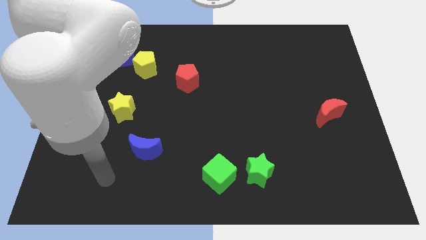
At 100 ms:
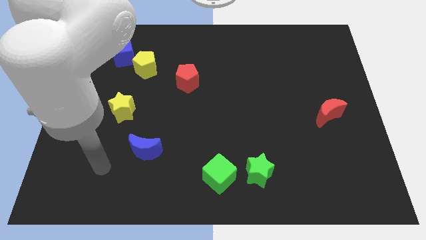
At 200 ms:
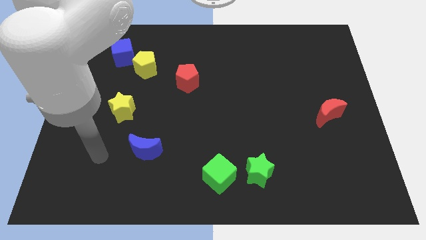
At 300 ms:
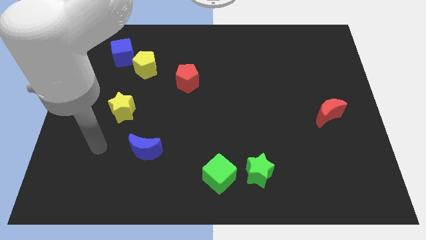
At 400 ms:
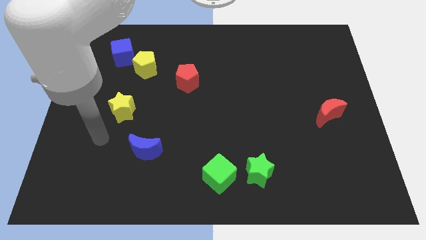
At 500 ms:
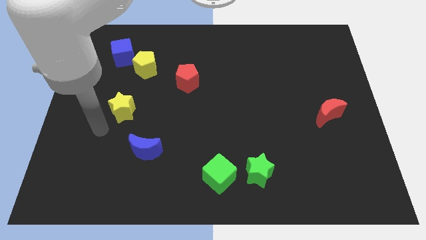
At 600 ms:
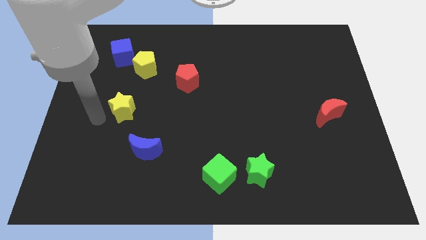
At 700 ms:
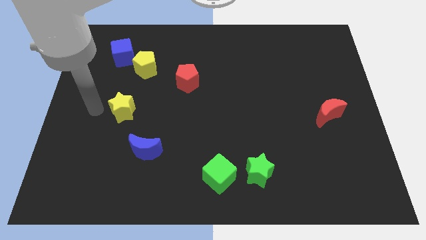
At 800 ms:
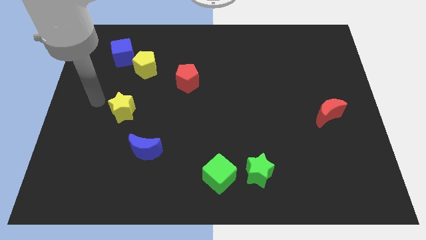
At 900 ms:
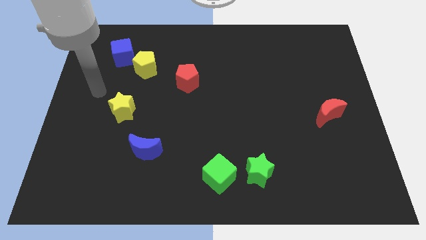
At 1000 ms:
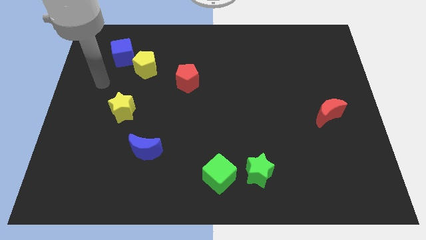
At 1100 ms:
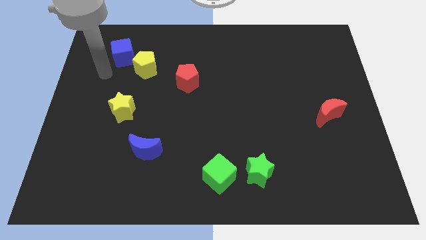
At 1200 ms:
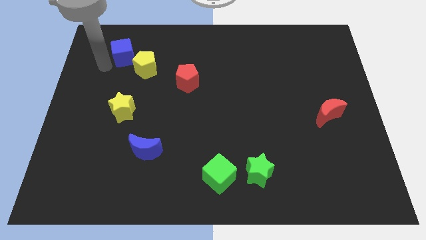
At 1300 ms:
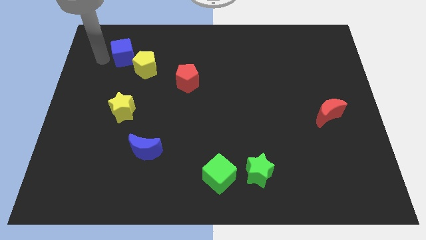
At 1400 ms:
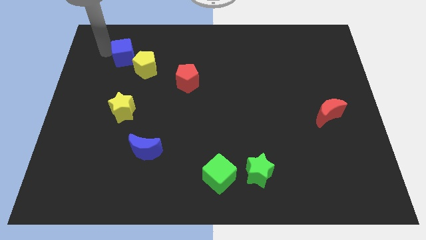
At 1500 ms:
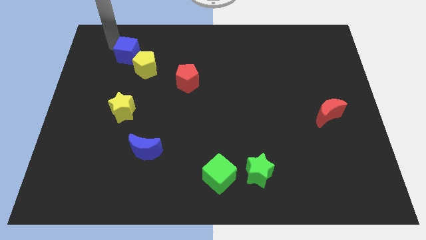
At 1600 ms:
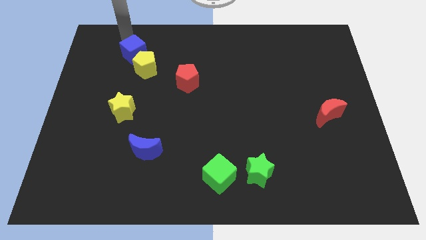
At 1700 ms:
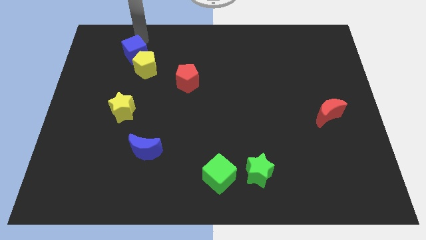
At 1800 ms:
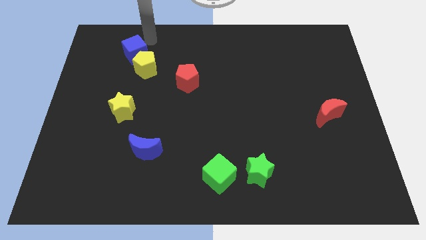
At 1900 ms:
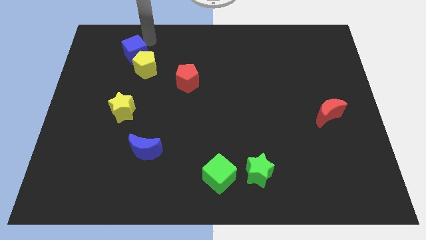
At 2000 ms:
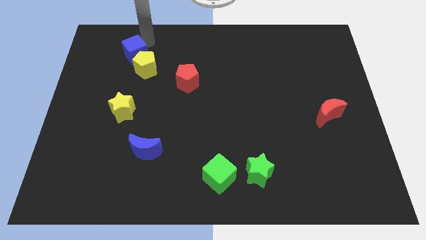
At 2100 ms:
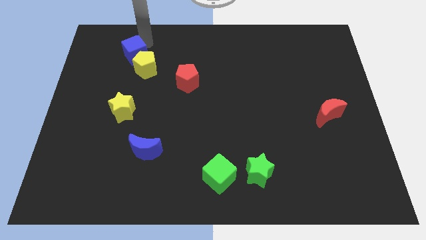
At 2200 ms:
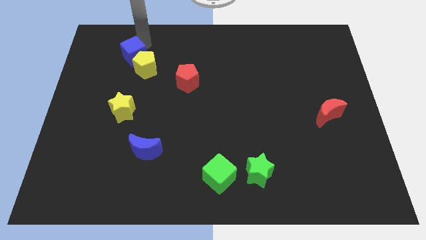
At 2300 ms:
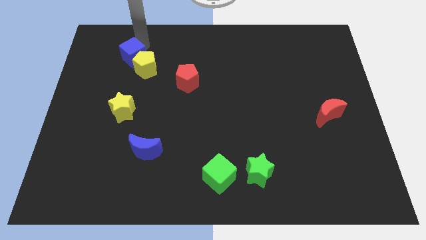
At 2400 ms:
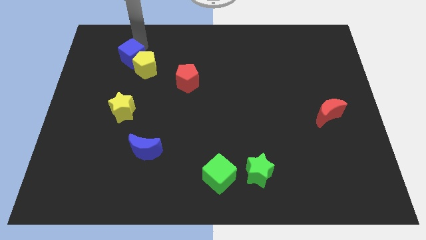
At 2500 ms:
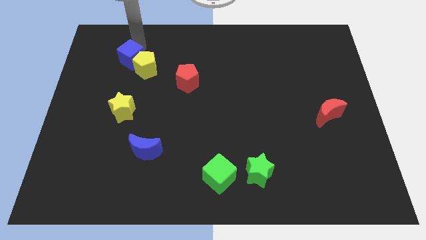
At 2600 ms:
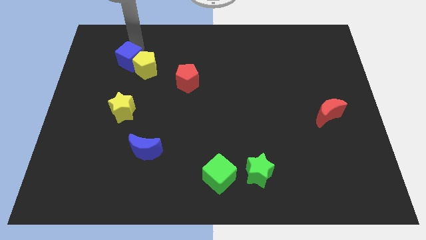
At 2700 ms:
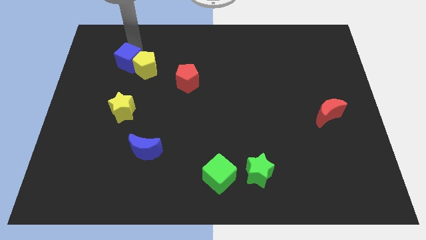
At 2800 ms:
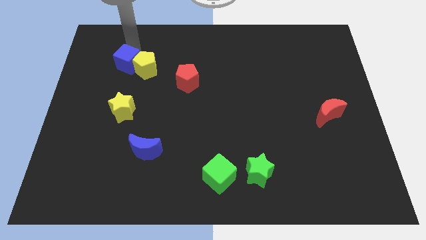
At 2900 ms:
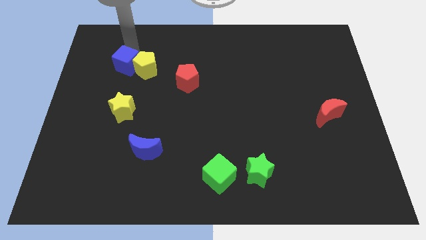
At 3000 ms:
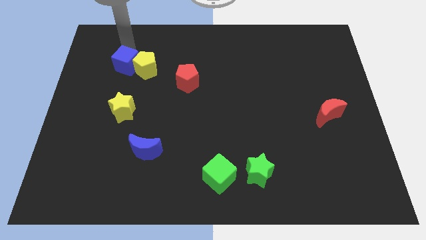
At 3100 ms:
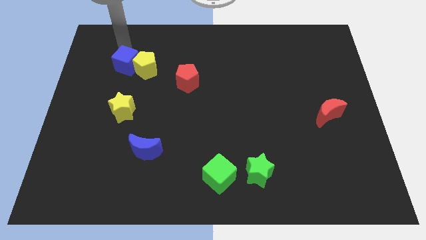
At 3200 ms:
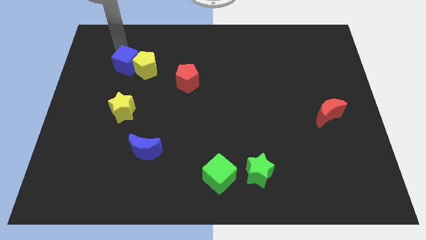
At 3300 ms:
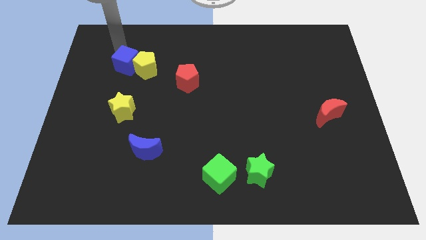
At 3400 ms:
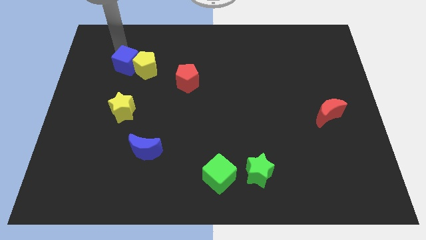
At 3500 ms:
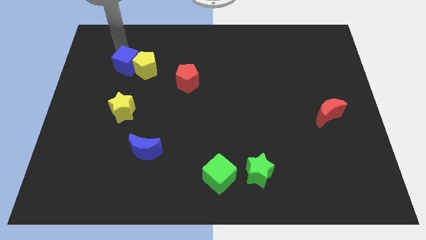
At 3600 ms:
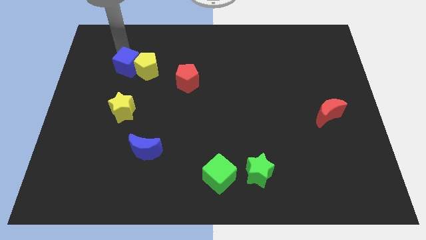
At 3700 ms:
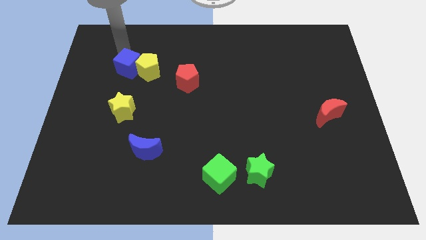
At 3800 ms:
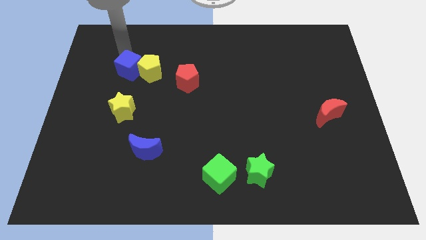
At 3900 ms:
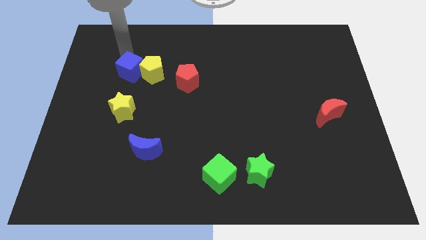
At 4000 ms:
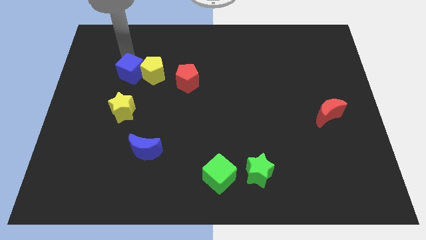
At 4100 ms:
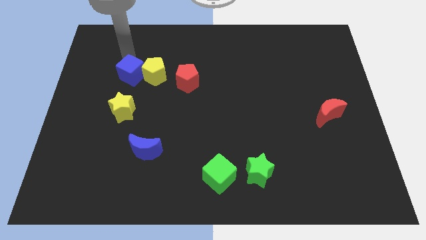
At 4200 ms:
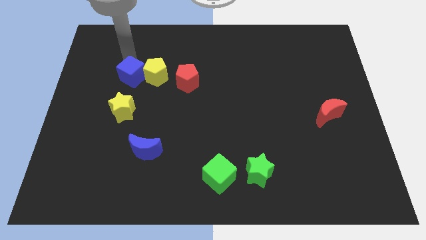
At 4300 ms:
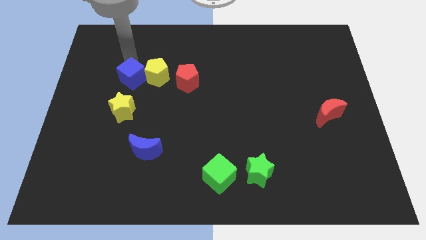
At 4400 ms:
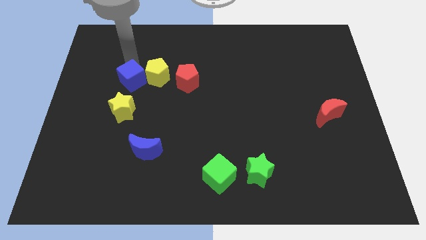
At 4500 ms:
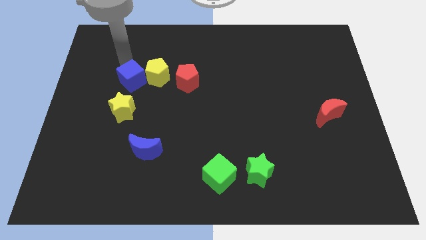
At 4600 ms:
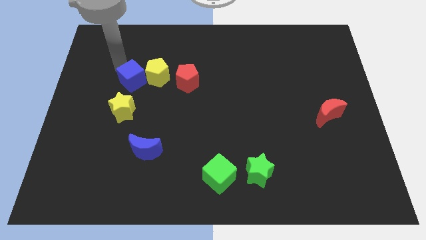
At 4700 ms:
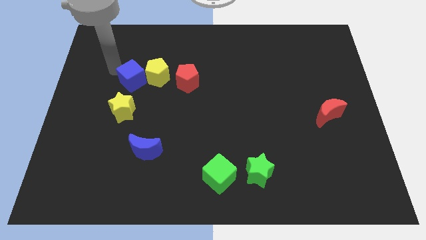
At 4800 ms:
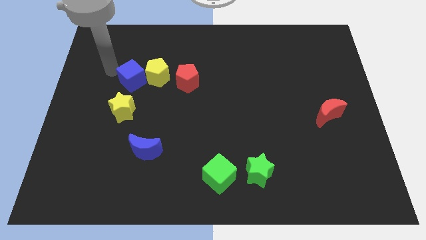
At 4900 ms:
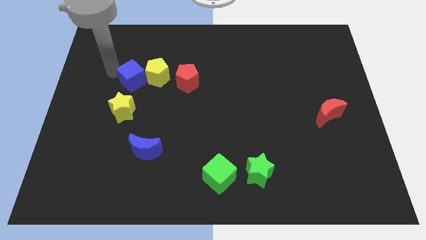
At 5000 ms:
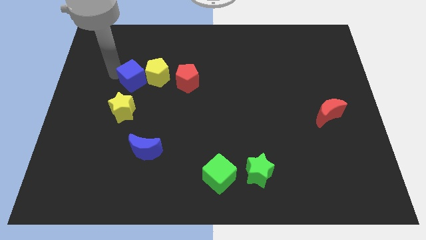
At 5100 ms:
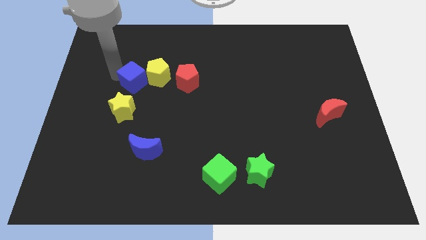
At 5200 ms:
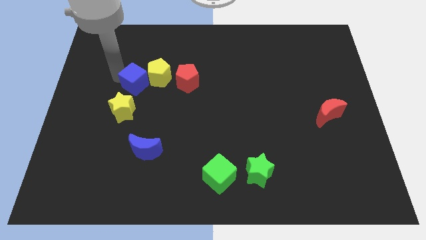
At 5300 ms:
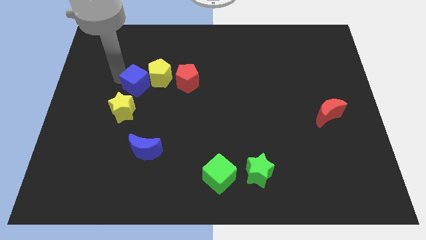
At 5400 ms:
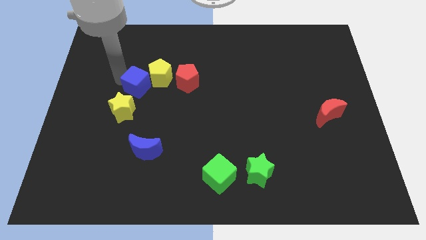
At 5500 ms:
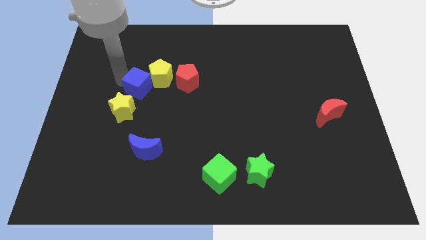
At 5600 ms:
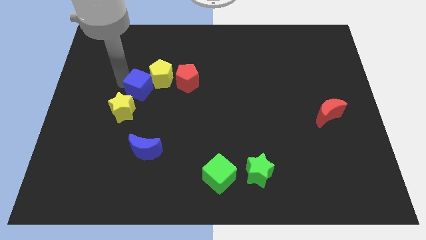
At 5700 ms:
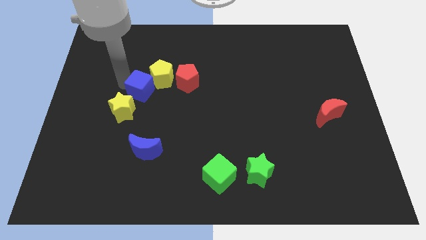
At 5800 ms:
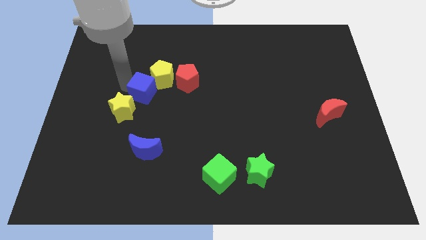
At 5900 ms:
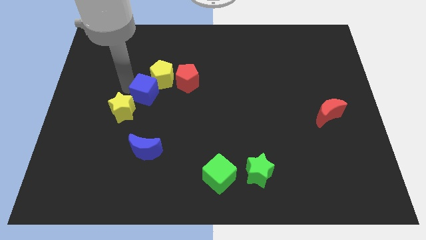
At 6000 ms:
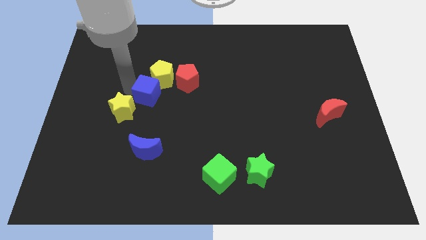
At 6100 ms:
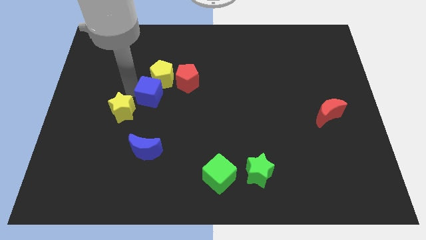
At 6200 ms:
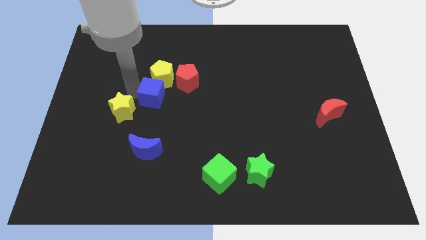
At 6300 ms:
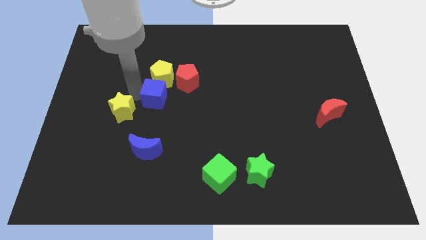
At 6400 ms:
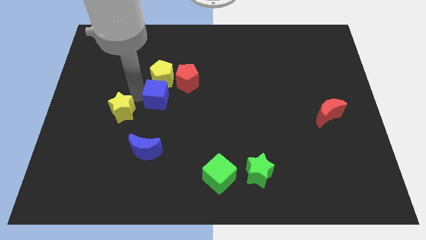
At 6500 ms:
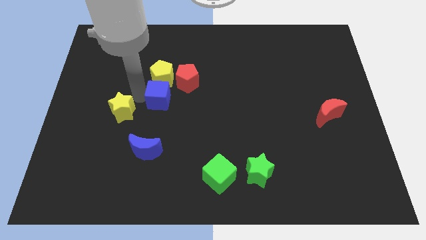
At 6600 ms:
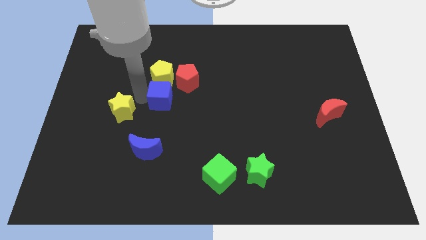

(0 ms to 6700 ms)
slide the blue cube to the center of the board
